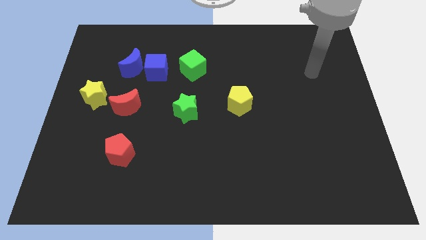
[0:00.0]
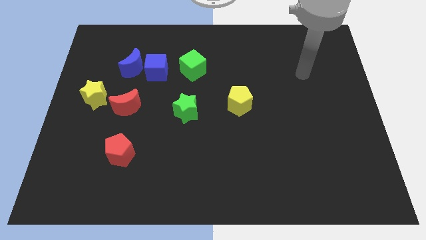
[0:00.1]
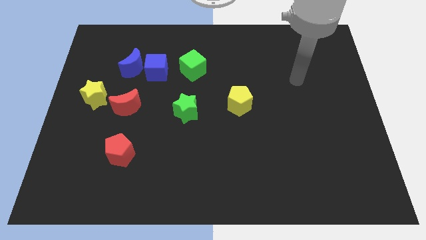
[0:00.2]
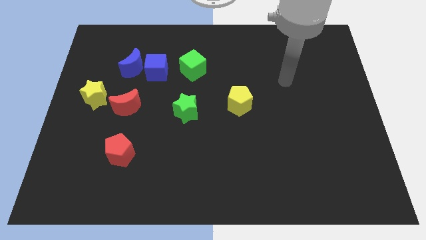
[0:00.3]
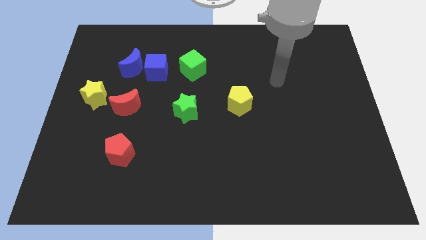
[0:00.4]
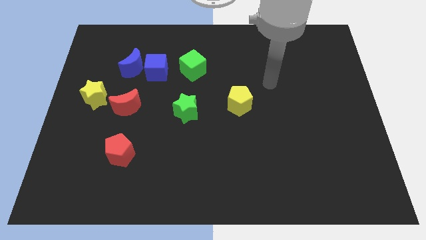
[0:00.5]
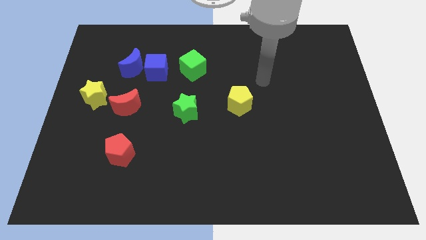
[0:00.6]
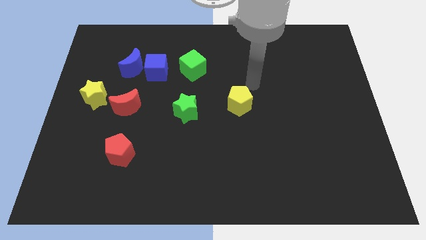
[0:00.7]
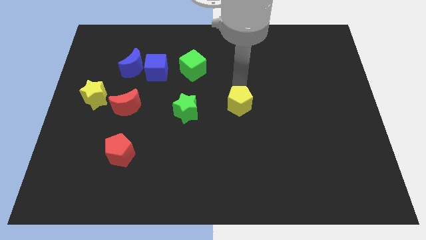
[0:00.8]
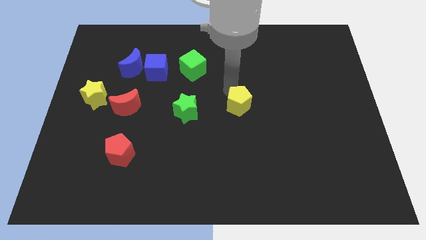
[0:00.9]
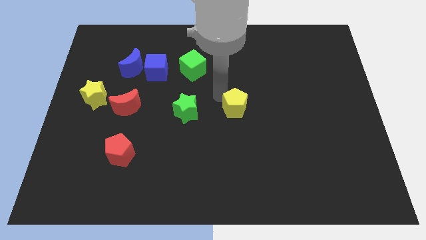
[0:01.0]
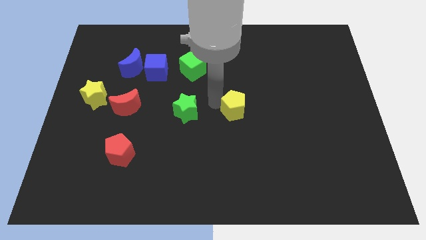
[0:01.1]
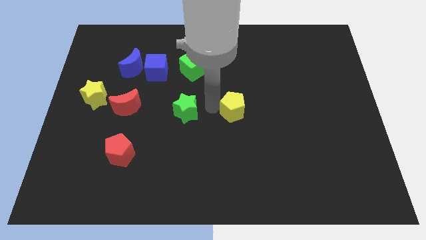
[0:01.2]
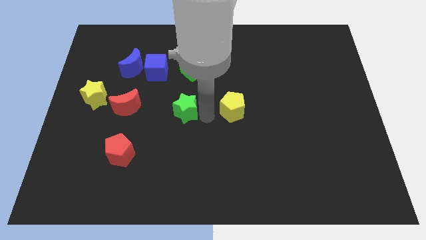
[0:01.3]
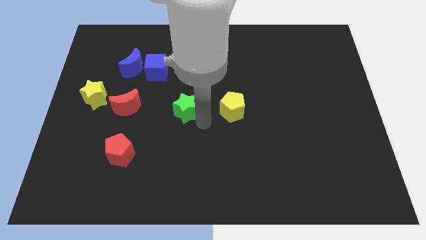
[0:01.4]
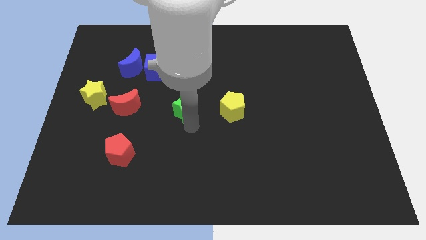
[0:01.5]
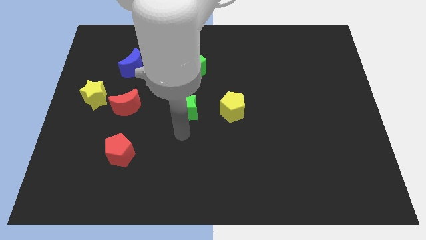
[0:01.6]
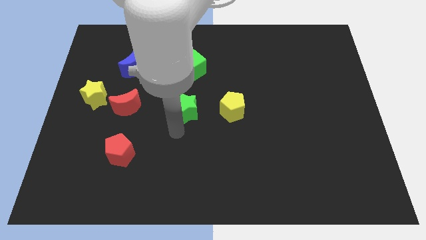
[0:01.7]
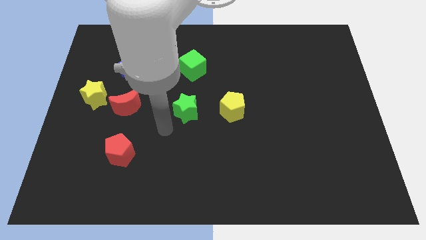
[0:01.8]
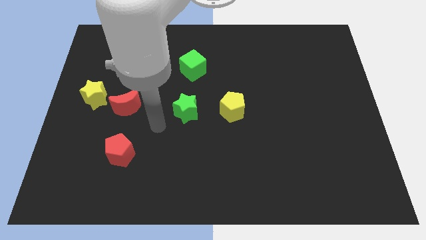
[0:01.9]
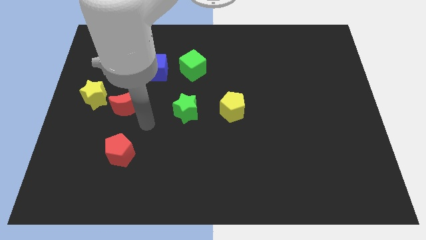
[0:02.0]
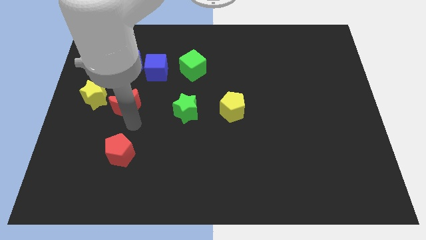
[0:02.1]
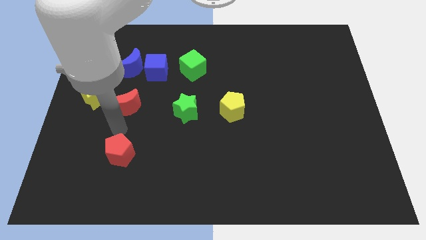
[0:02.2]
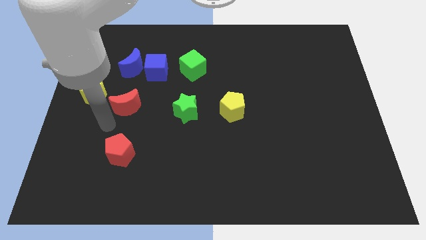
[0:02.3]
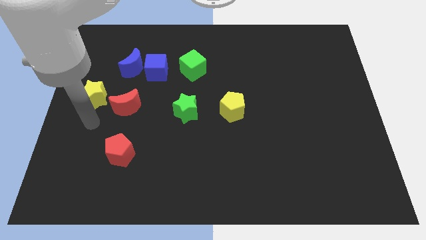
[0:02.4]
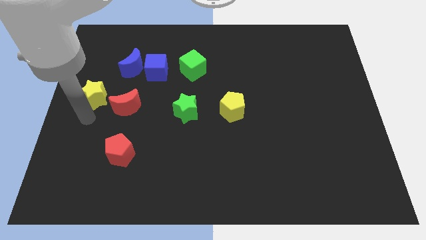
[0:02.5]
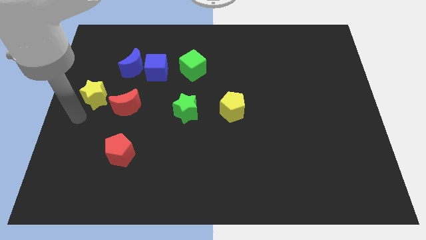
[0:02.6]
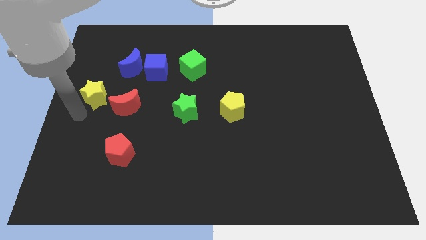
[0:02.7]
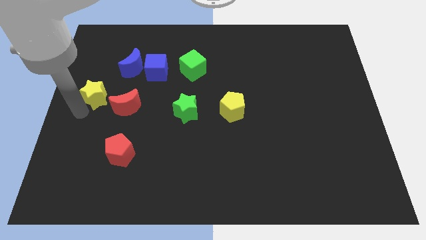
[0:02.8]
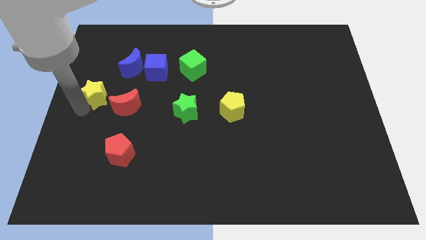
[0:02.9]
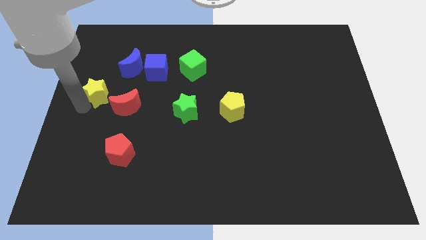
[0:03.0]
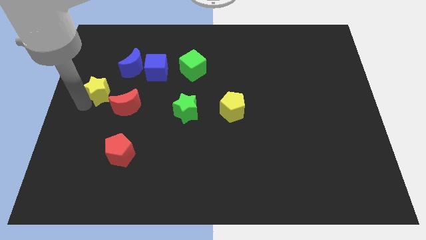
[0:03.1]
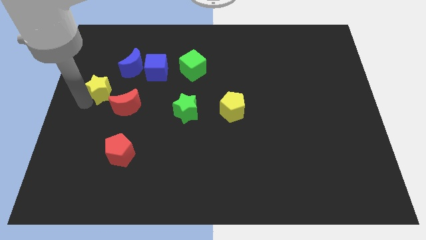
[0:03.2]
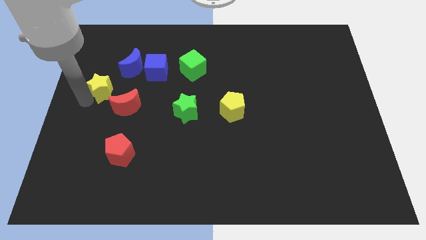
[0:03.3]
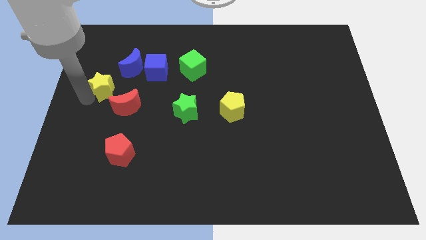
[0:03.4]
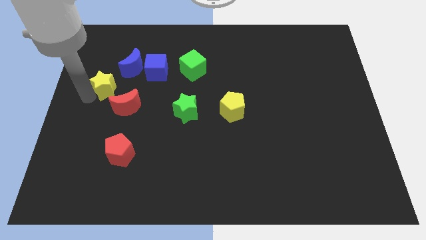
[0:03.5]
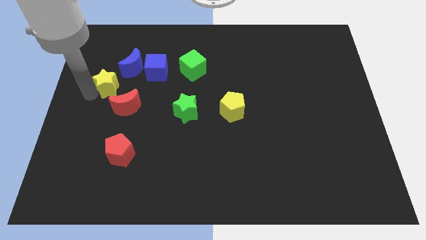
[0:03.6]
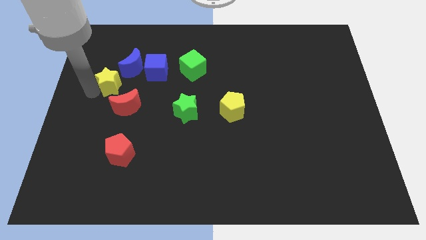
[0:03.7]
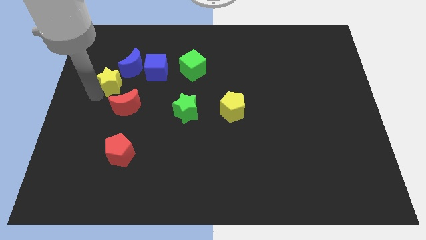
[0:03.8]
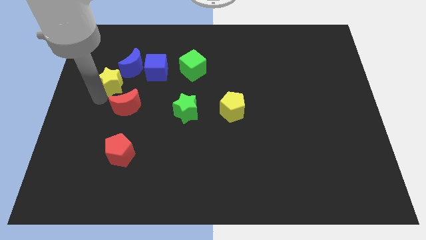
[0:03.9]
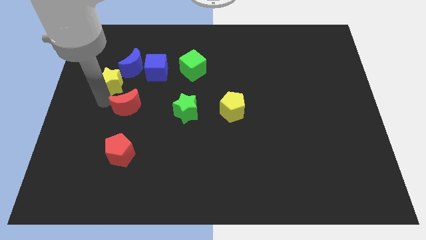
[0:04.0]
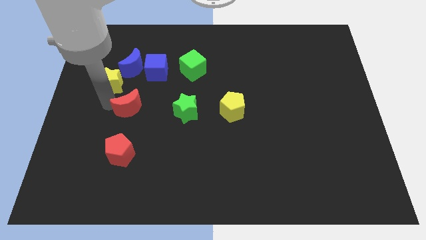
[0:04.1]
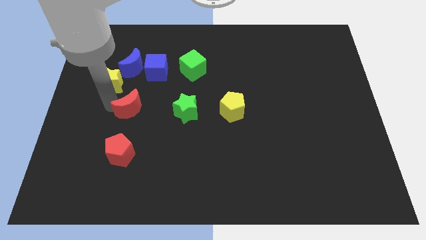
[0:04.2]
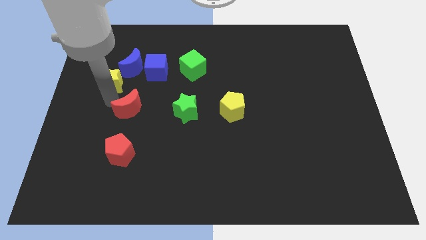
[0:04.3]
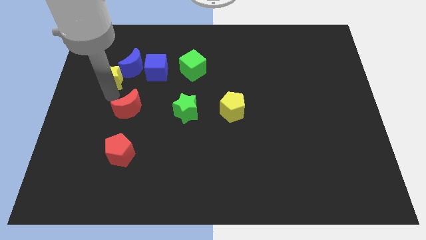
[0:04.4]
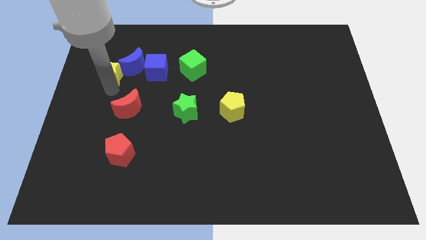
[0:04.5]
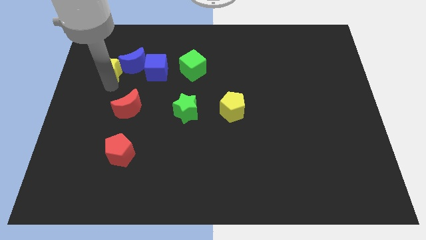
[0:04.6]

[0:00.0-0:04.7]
slightly slide the yellow star up and to the right diagonally

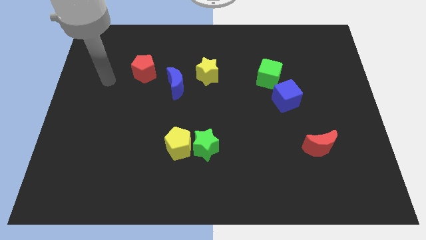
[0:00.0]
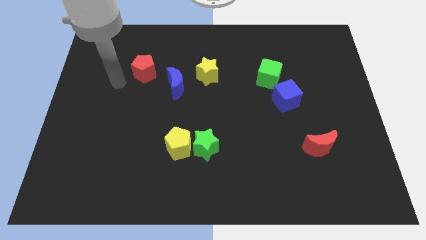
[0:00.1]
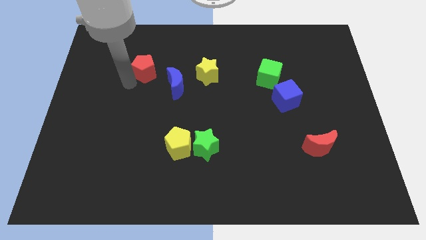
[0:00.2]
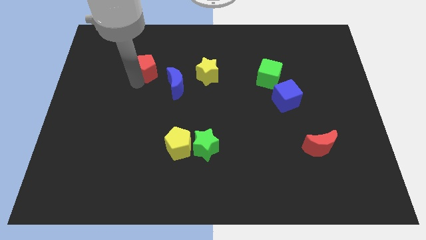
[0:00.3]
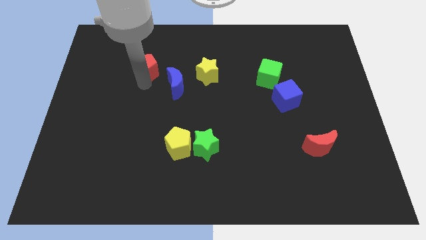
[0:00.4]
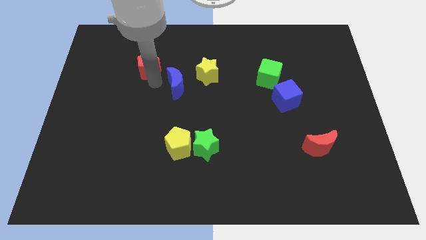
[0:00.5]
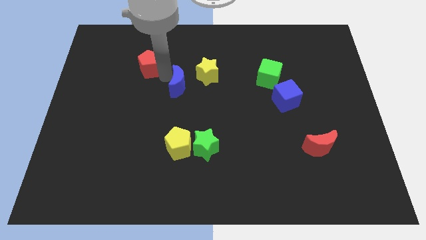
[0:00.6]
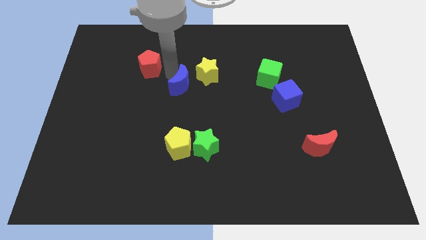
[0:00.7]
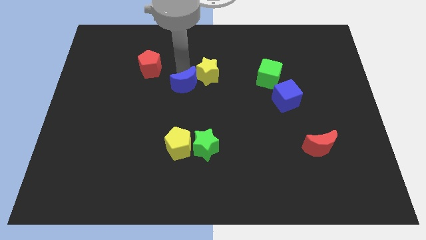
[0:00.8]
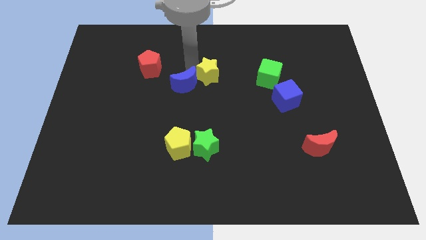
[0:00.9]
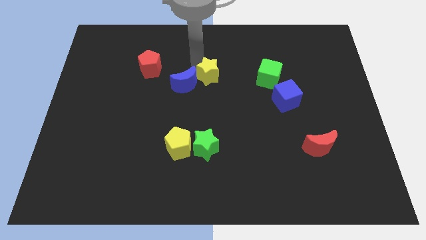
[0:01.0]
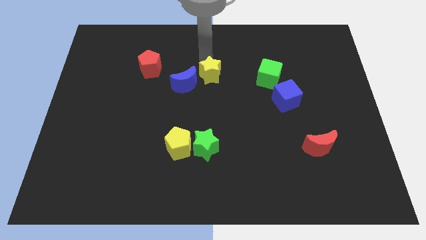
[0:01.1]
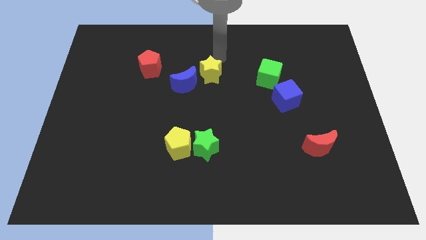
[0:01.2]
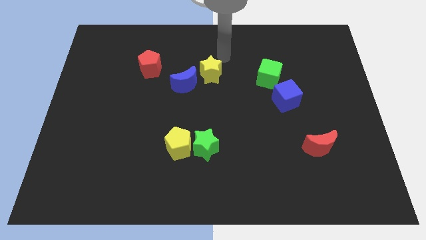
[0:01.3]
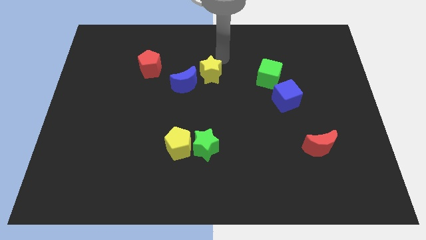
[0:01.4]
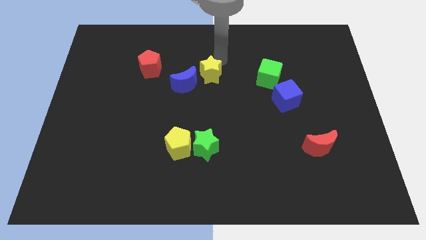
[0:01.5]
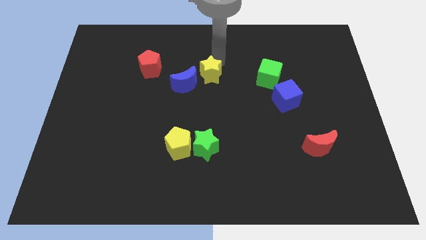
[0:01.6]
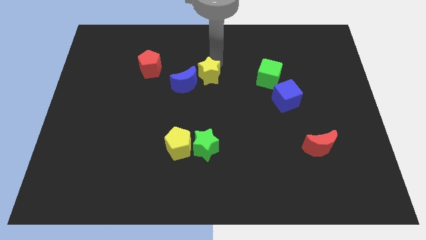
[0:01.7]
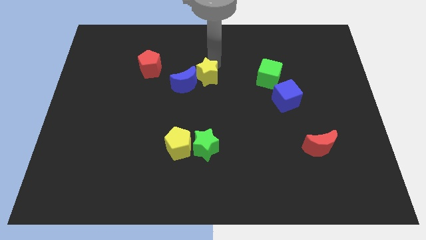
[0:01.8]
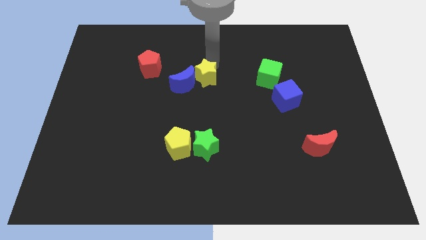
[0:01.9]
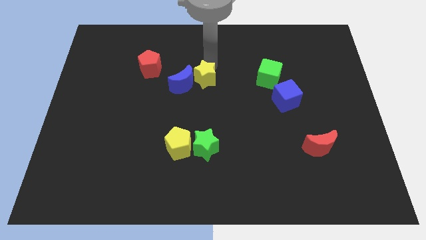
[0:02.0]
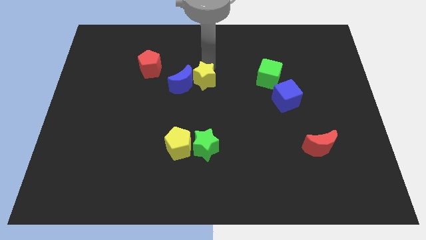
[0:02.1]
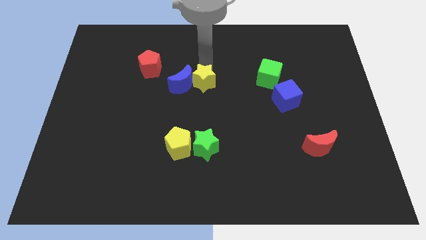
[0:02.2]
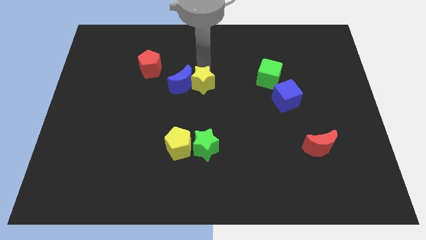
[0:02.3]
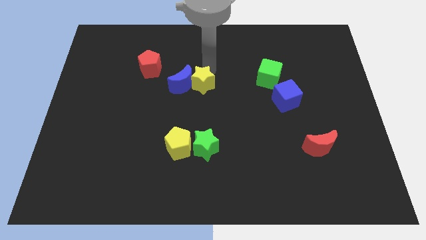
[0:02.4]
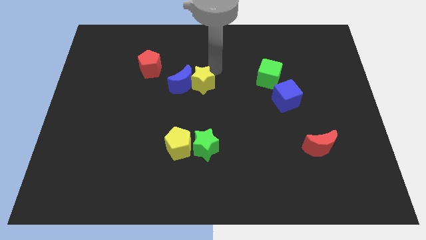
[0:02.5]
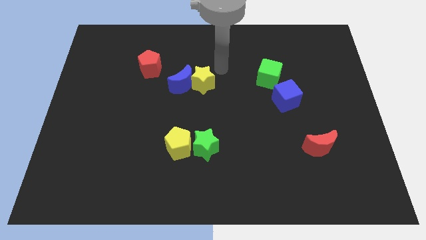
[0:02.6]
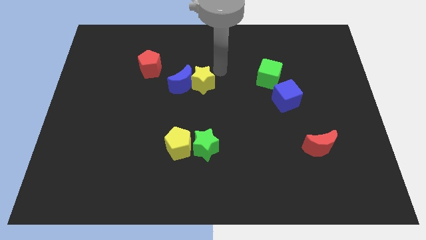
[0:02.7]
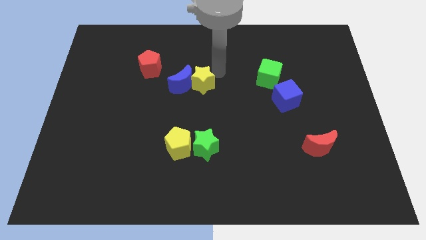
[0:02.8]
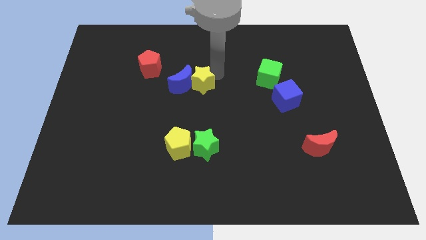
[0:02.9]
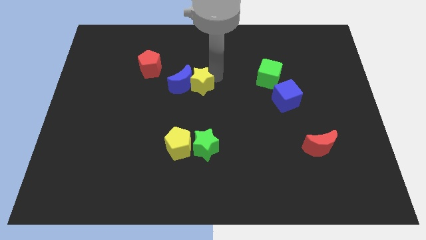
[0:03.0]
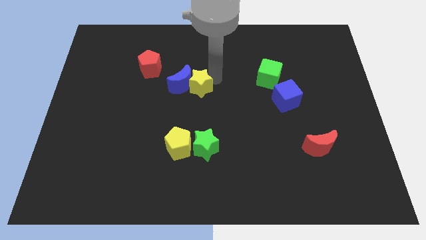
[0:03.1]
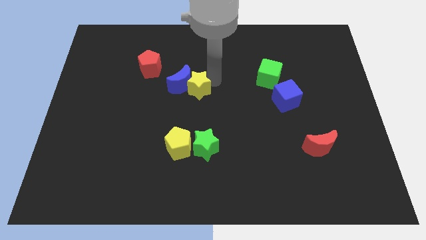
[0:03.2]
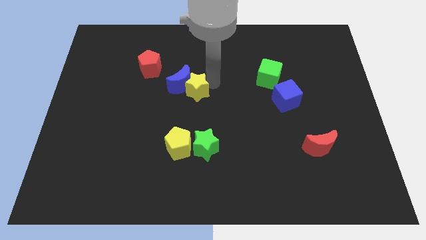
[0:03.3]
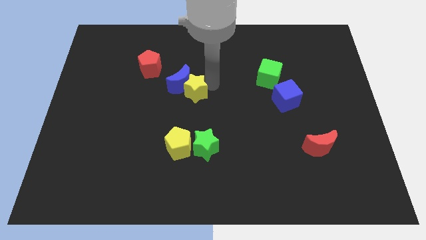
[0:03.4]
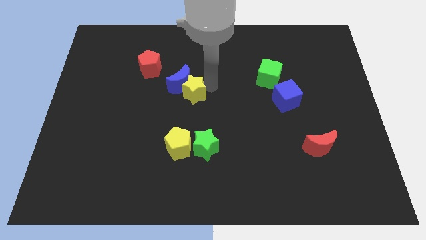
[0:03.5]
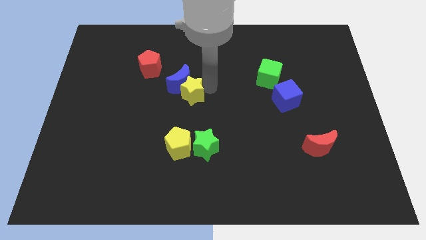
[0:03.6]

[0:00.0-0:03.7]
slightly slide the yellow star downwards and then left
